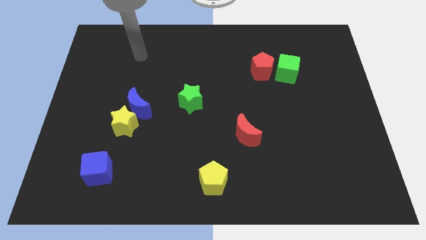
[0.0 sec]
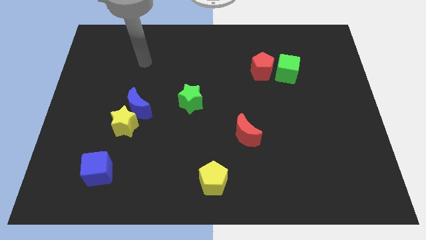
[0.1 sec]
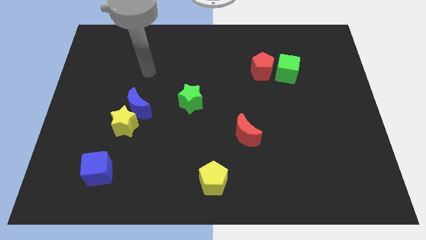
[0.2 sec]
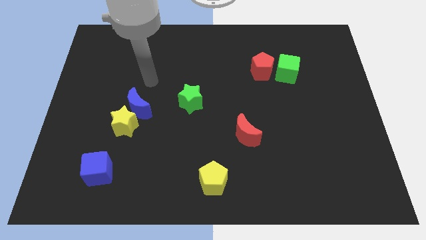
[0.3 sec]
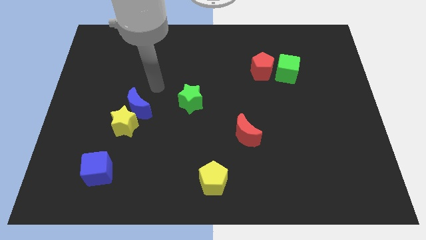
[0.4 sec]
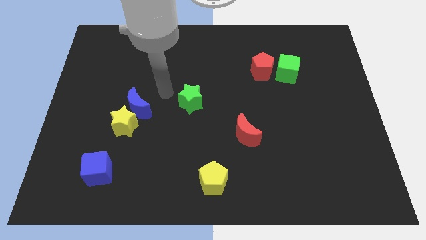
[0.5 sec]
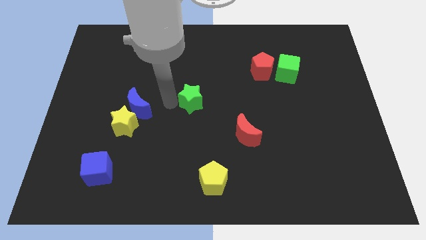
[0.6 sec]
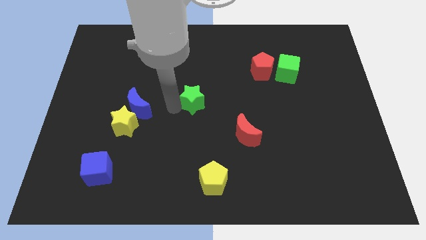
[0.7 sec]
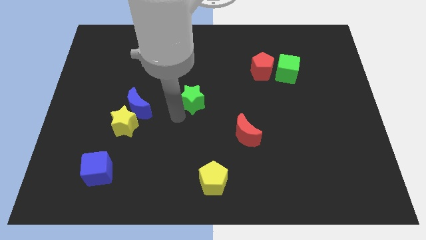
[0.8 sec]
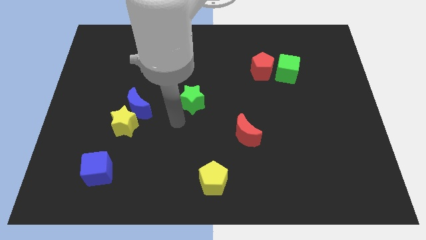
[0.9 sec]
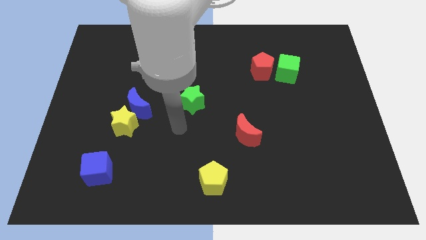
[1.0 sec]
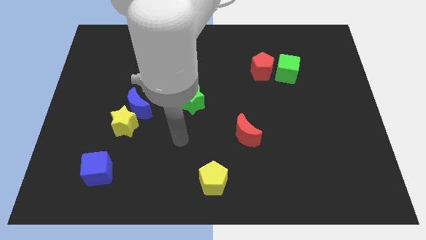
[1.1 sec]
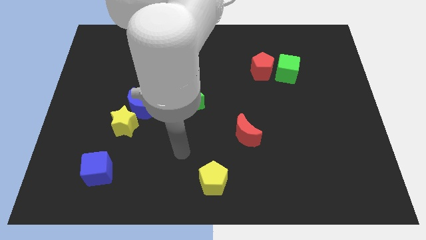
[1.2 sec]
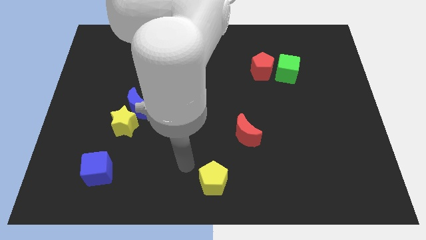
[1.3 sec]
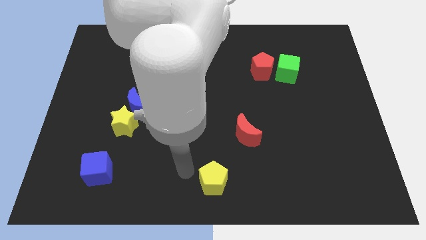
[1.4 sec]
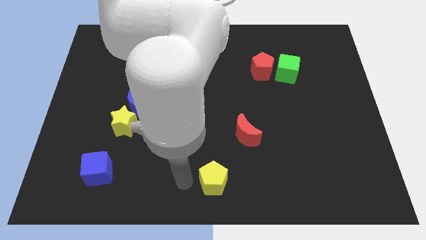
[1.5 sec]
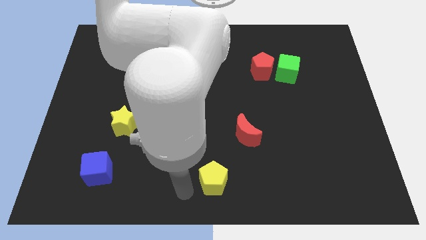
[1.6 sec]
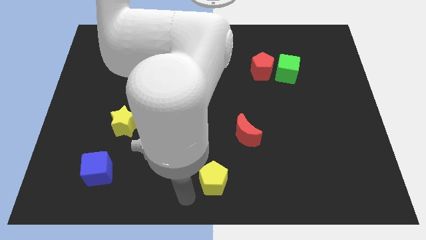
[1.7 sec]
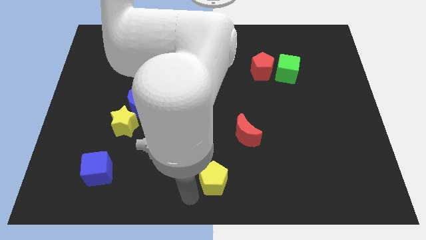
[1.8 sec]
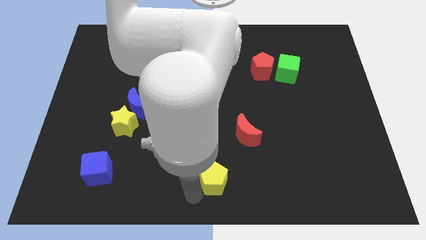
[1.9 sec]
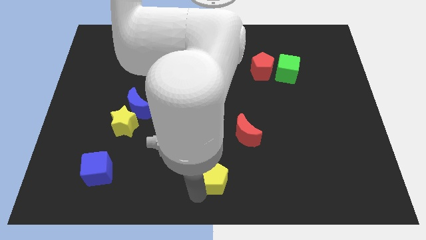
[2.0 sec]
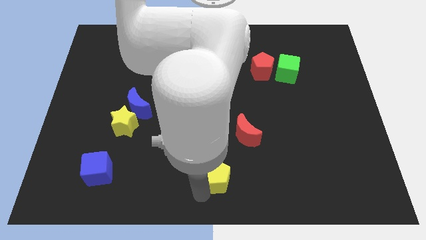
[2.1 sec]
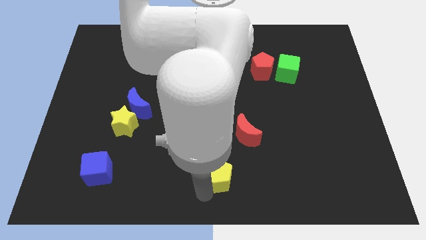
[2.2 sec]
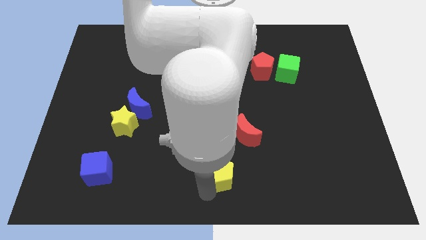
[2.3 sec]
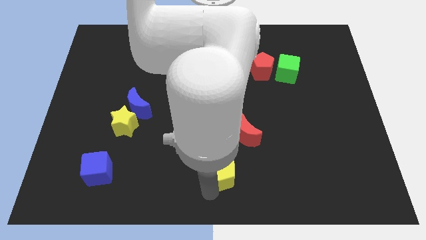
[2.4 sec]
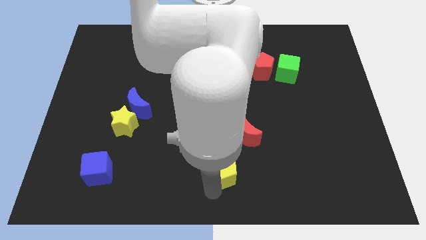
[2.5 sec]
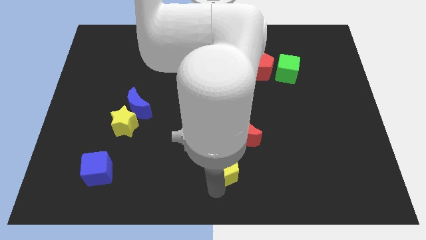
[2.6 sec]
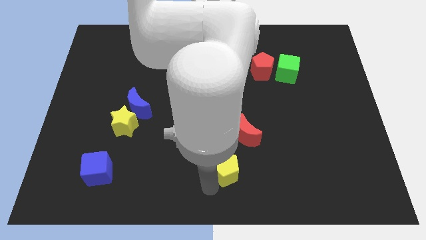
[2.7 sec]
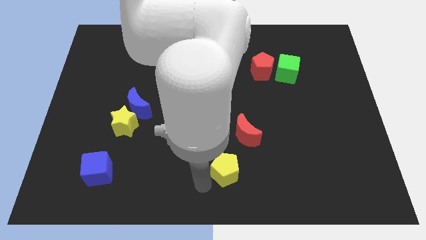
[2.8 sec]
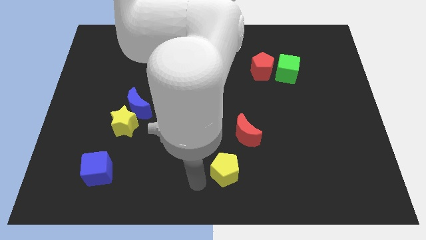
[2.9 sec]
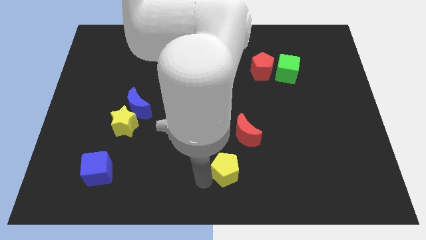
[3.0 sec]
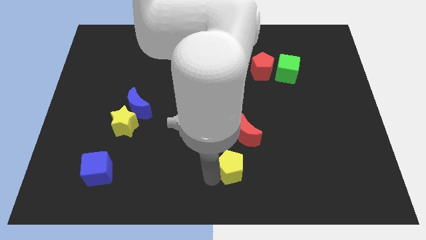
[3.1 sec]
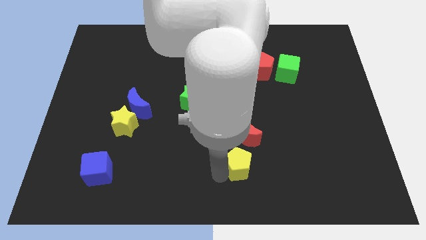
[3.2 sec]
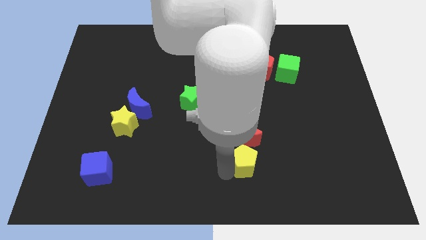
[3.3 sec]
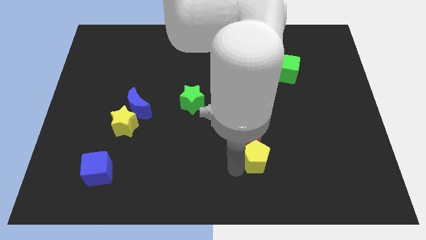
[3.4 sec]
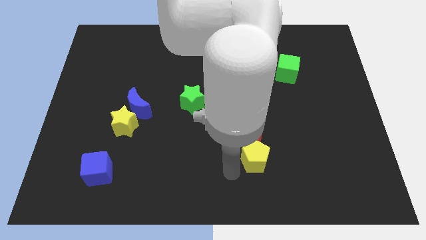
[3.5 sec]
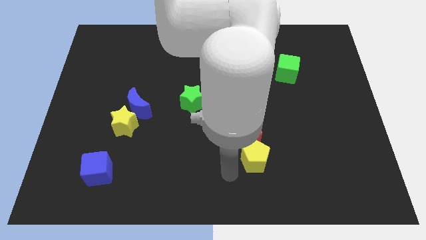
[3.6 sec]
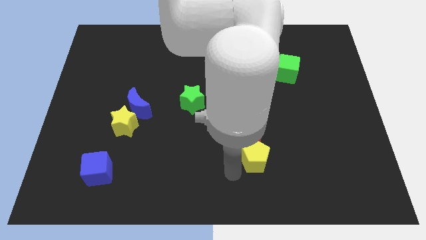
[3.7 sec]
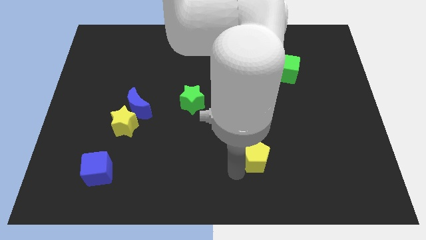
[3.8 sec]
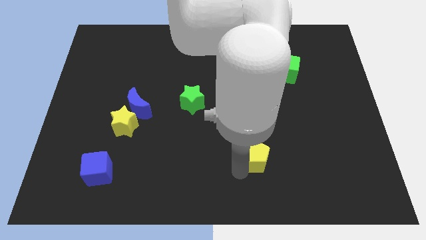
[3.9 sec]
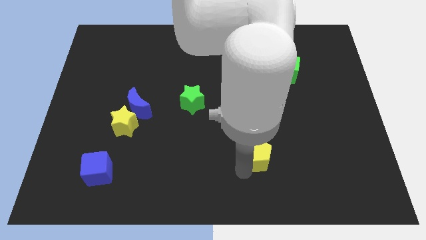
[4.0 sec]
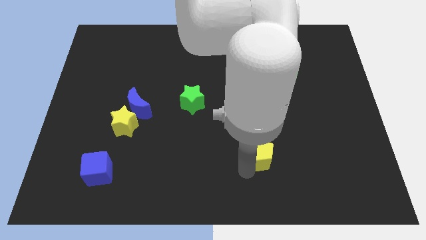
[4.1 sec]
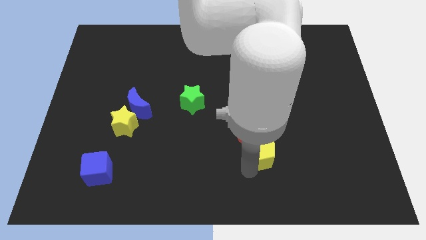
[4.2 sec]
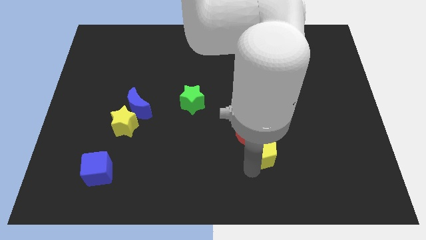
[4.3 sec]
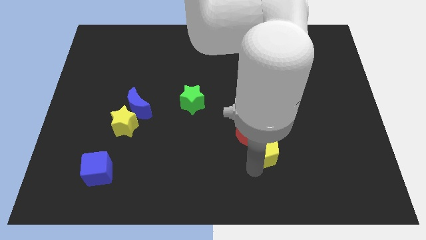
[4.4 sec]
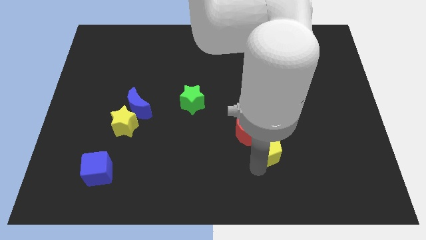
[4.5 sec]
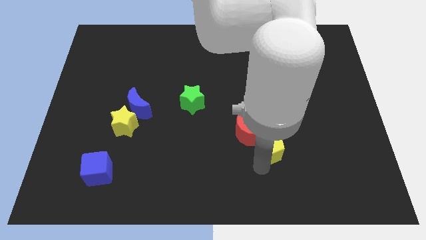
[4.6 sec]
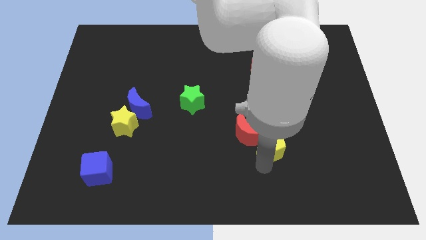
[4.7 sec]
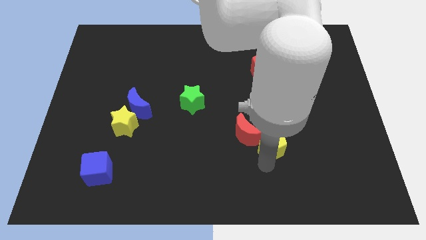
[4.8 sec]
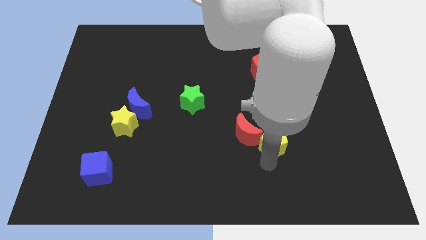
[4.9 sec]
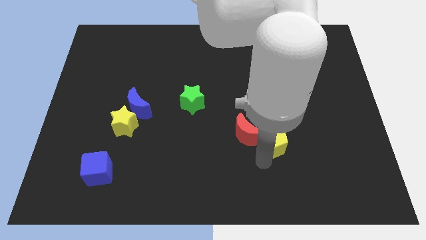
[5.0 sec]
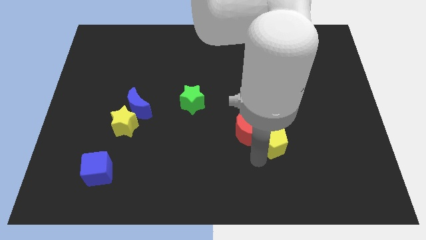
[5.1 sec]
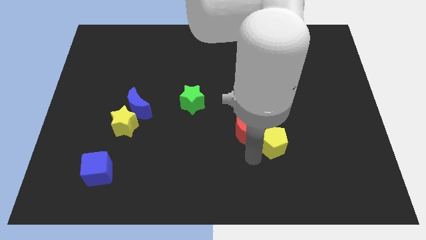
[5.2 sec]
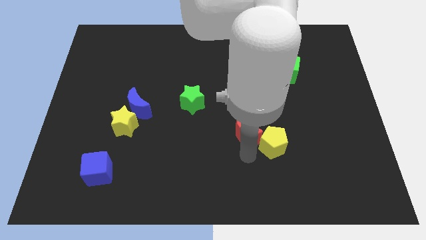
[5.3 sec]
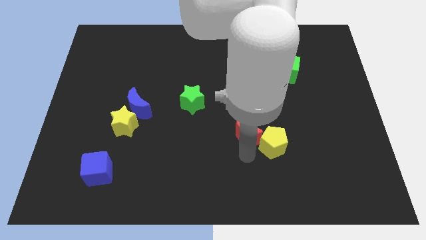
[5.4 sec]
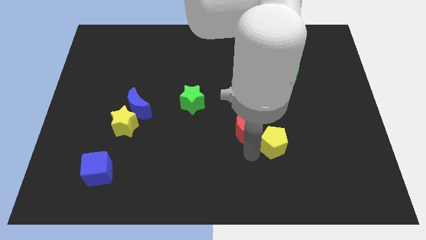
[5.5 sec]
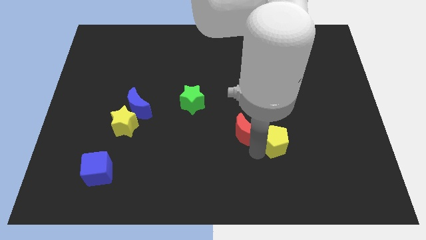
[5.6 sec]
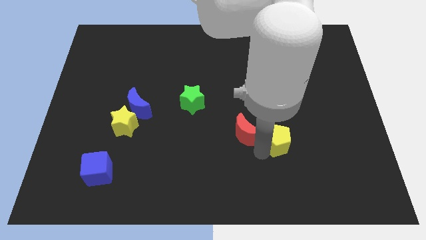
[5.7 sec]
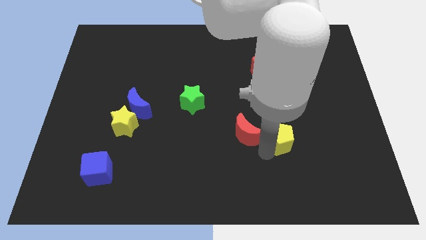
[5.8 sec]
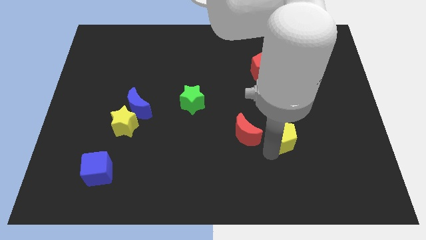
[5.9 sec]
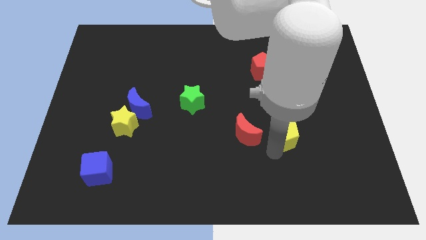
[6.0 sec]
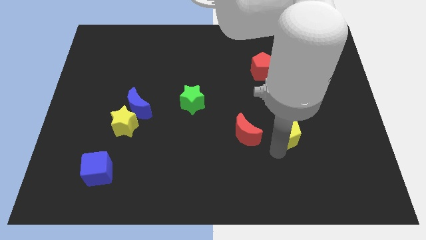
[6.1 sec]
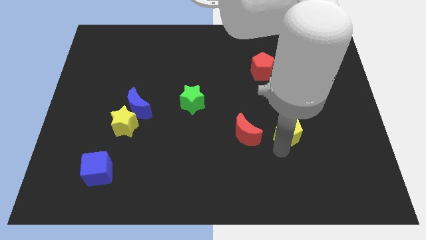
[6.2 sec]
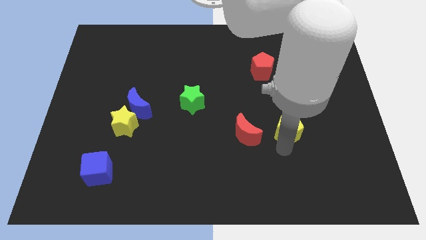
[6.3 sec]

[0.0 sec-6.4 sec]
push the yellow pentagon upwards and to the right

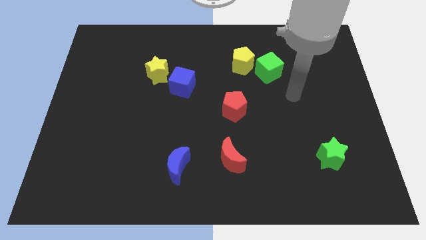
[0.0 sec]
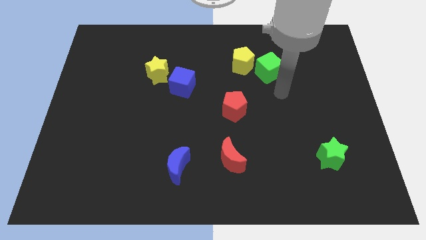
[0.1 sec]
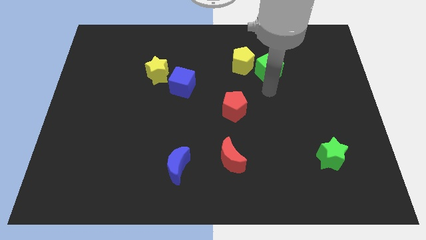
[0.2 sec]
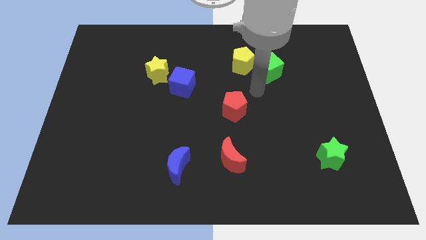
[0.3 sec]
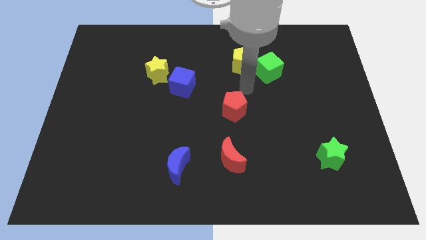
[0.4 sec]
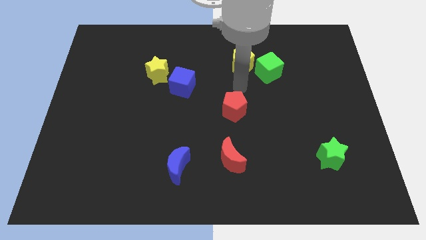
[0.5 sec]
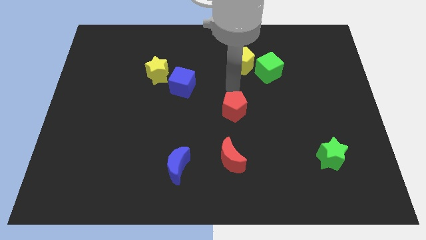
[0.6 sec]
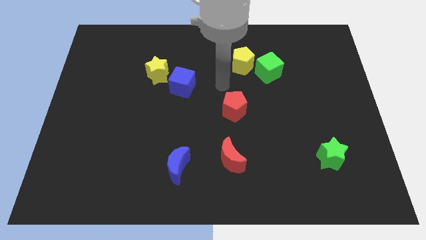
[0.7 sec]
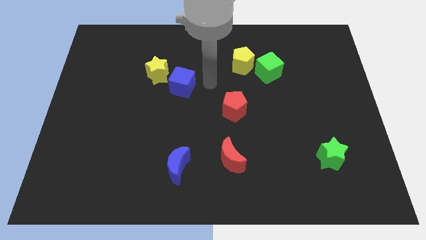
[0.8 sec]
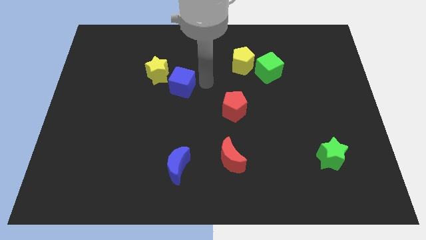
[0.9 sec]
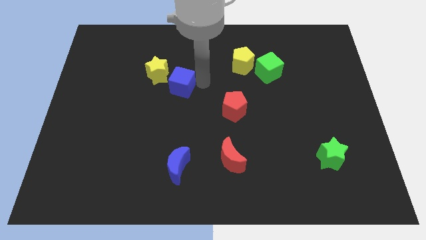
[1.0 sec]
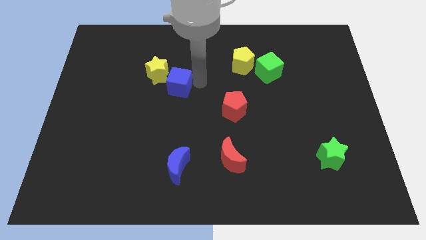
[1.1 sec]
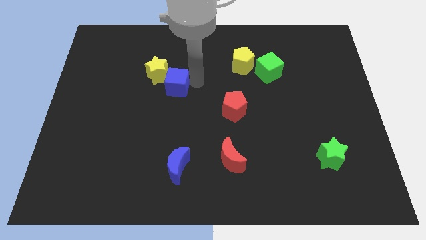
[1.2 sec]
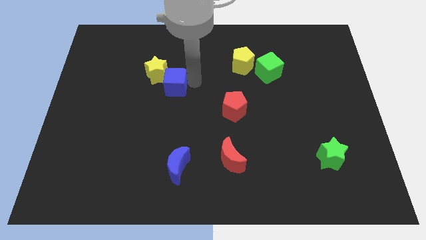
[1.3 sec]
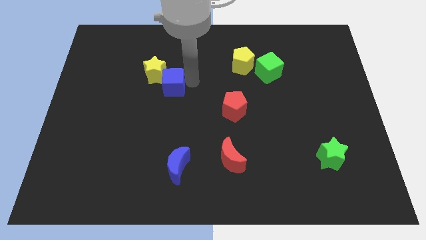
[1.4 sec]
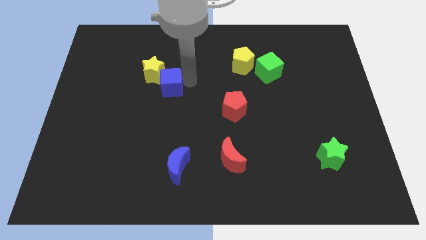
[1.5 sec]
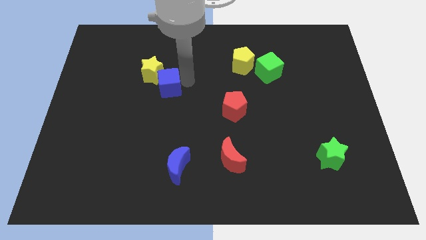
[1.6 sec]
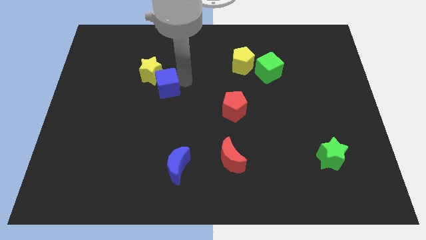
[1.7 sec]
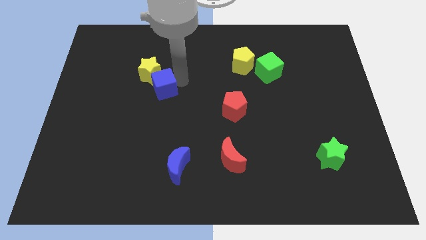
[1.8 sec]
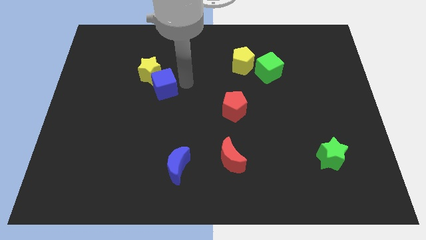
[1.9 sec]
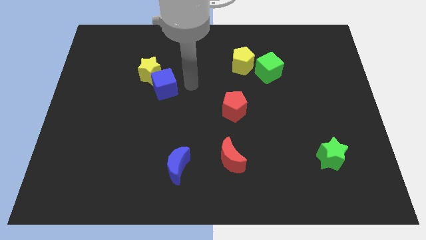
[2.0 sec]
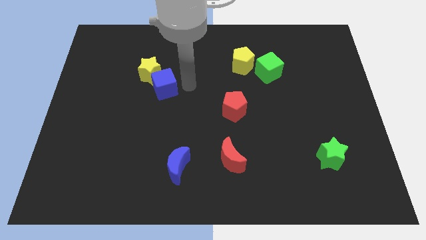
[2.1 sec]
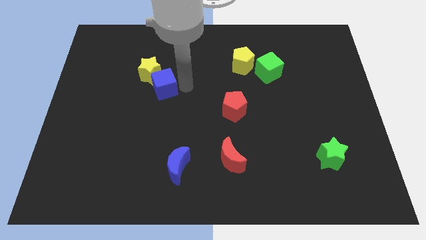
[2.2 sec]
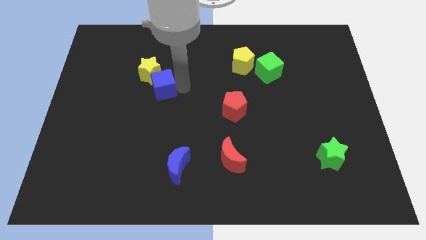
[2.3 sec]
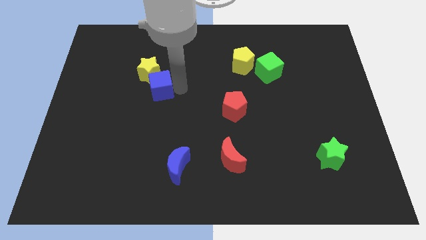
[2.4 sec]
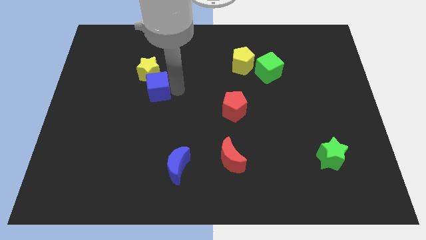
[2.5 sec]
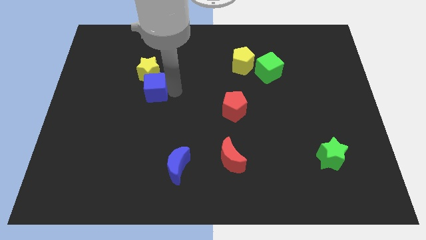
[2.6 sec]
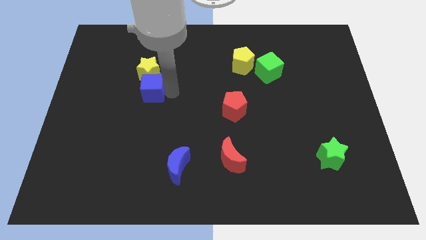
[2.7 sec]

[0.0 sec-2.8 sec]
slide the blue cube left a little bit
